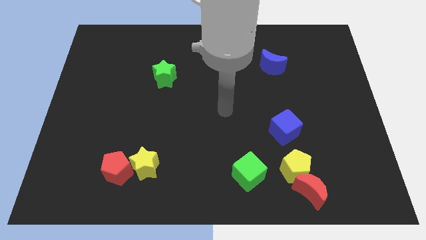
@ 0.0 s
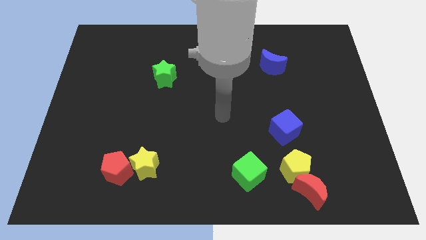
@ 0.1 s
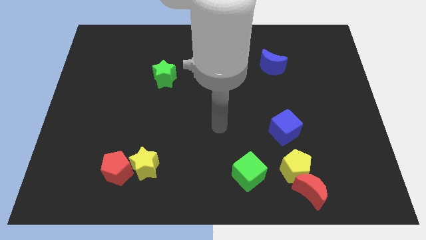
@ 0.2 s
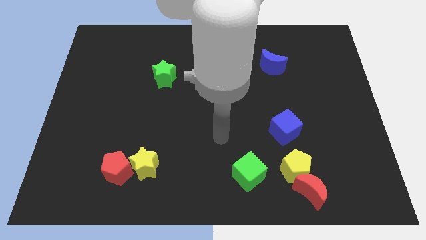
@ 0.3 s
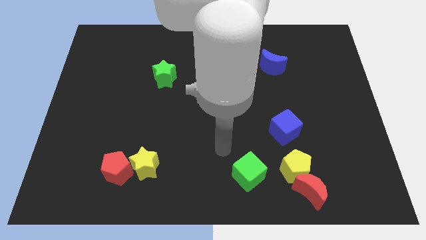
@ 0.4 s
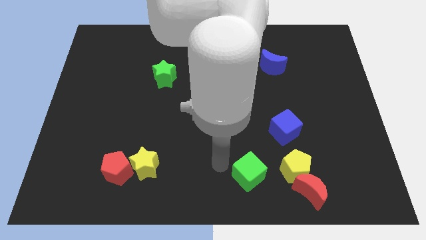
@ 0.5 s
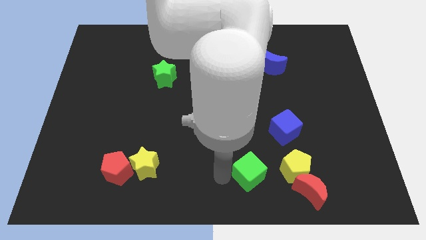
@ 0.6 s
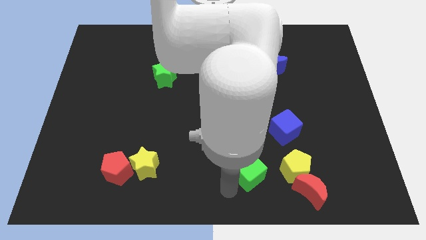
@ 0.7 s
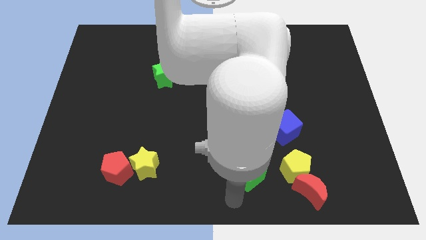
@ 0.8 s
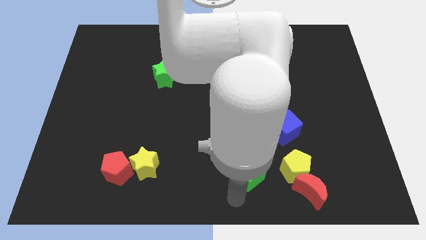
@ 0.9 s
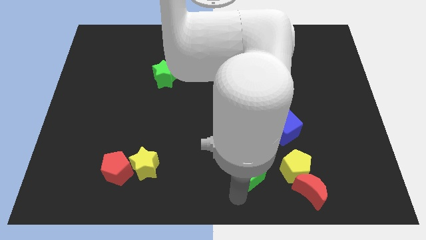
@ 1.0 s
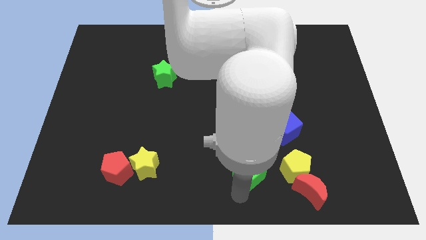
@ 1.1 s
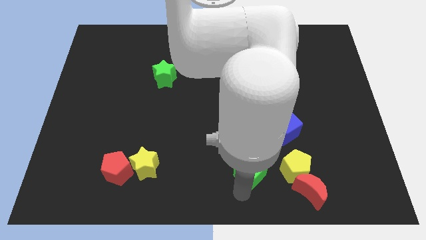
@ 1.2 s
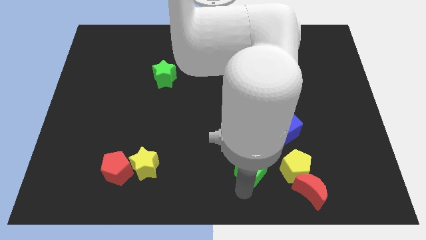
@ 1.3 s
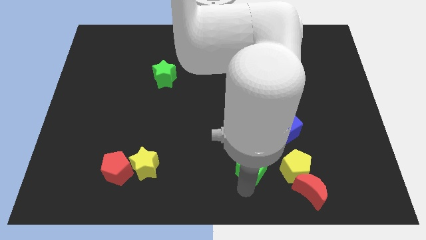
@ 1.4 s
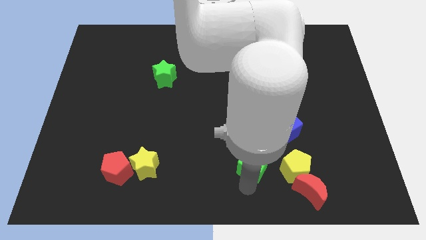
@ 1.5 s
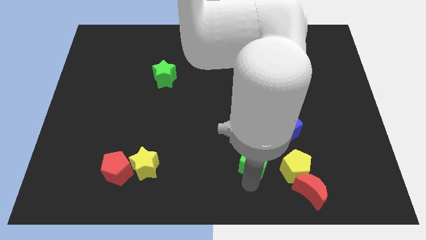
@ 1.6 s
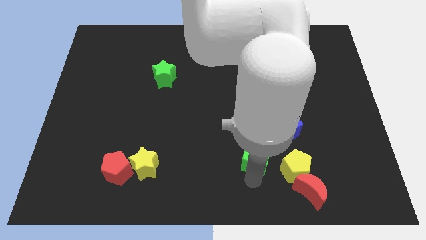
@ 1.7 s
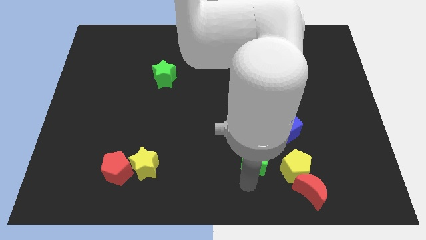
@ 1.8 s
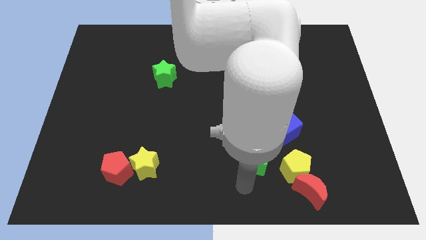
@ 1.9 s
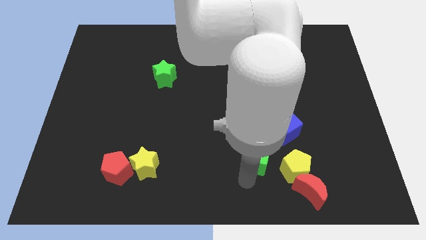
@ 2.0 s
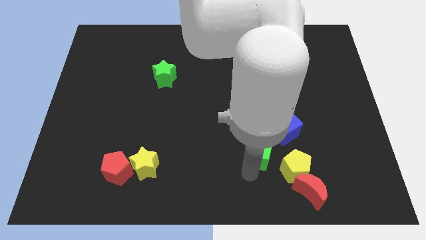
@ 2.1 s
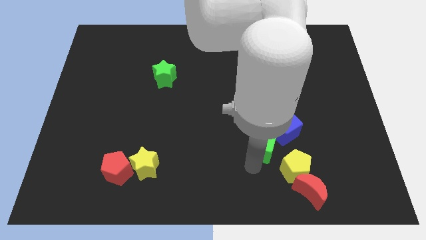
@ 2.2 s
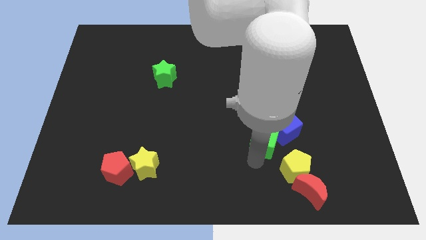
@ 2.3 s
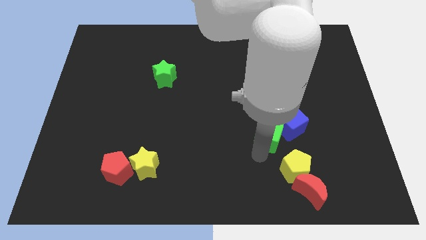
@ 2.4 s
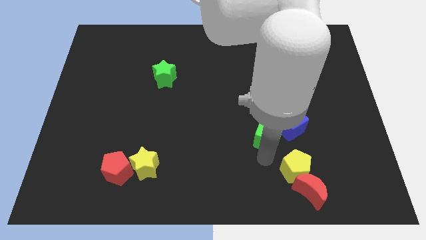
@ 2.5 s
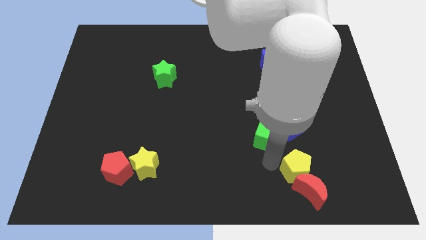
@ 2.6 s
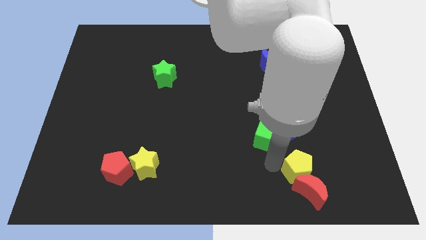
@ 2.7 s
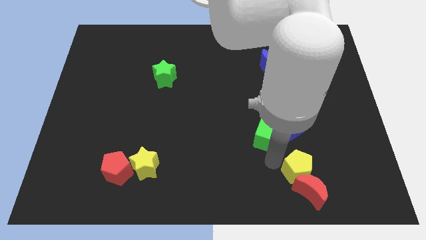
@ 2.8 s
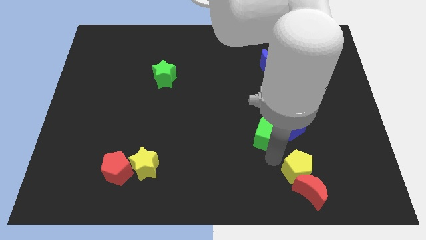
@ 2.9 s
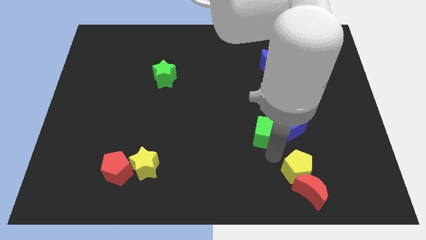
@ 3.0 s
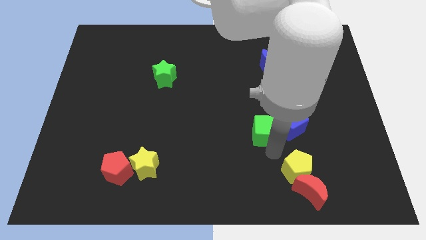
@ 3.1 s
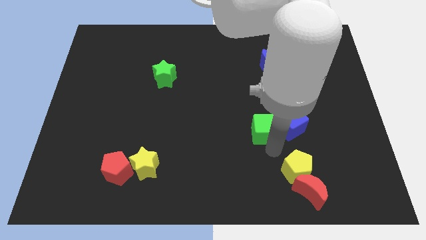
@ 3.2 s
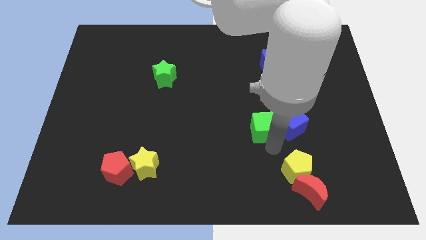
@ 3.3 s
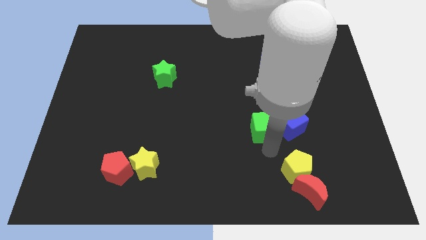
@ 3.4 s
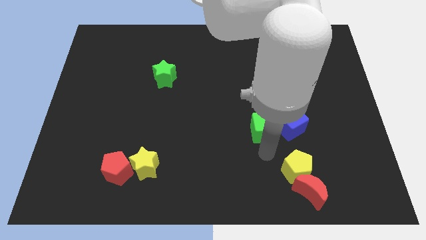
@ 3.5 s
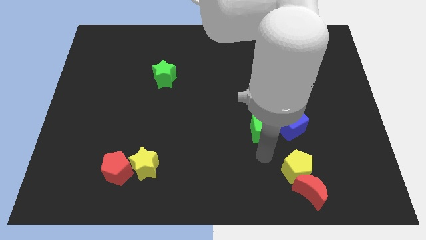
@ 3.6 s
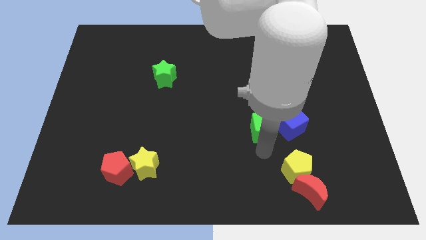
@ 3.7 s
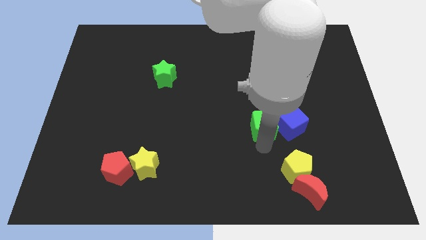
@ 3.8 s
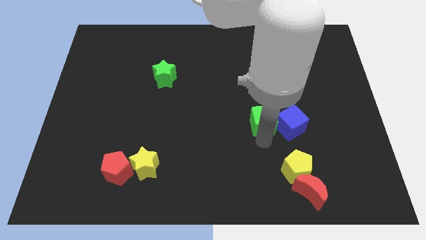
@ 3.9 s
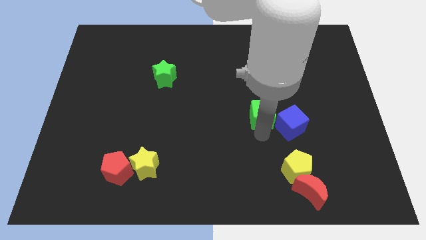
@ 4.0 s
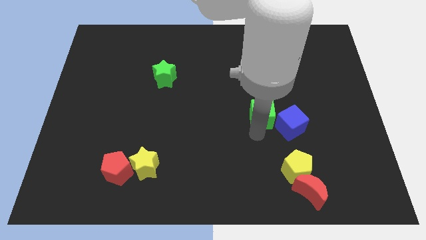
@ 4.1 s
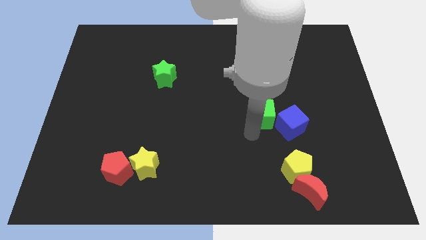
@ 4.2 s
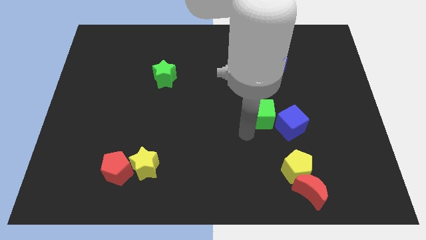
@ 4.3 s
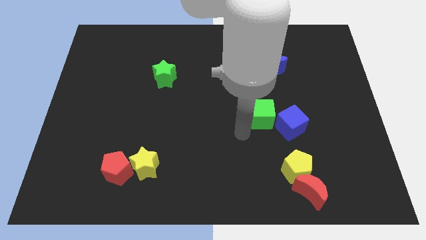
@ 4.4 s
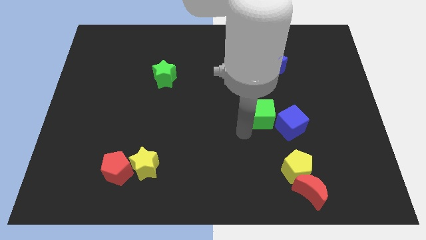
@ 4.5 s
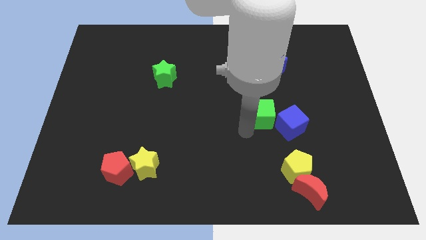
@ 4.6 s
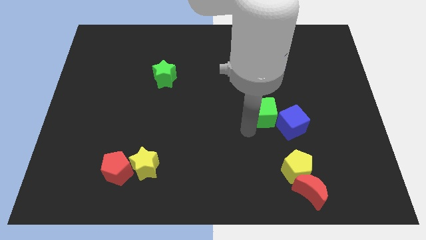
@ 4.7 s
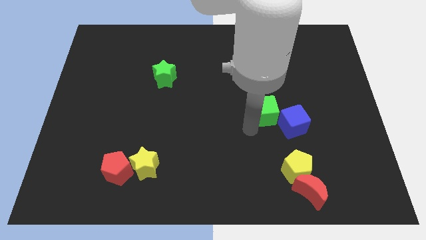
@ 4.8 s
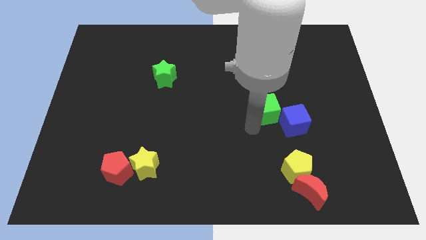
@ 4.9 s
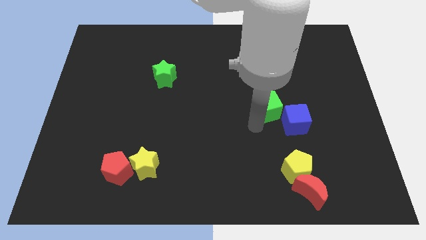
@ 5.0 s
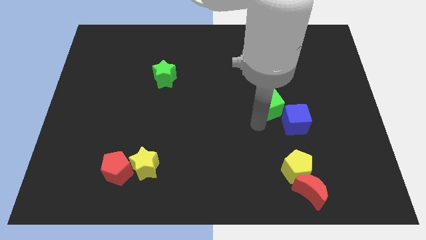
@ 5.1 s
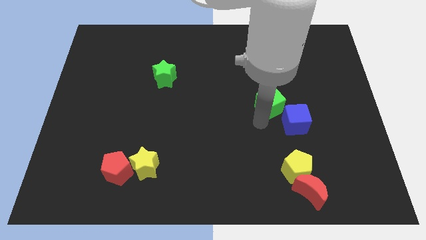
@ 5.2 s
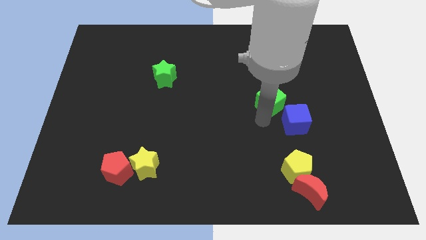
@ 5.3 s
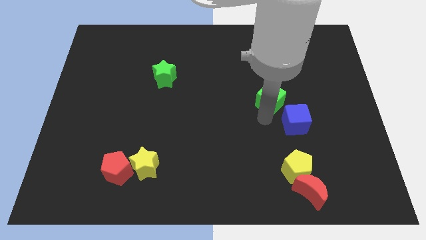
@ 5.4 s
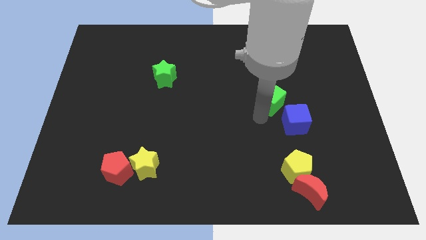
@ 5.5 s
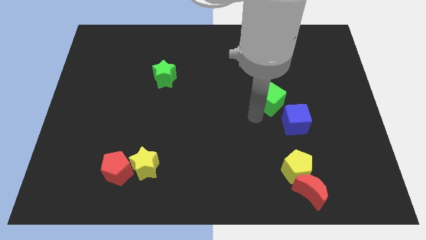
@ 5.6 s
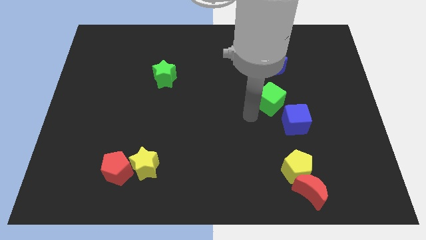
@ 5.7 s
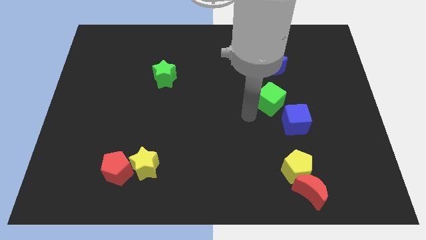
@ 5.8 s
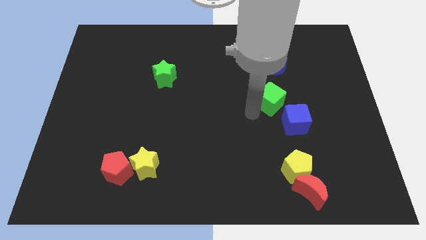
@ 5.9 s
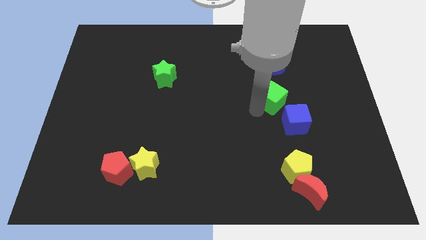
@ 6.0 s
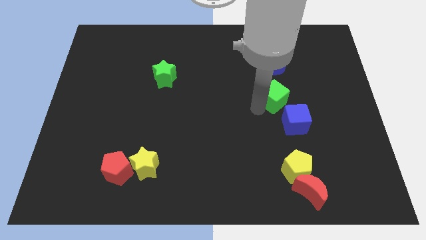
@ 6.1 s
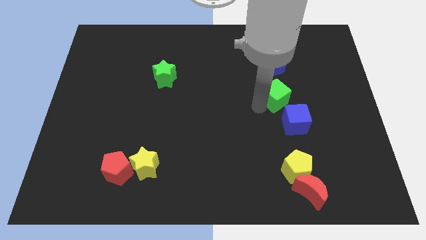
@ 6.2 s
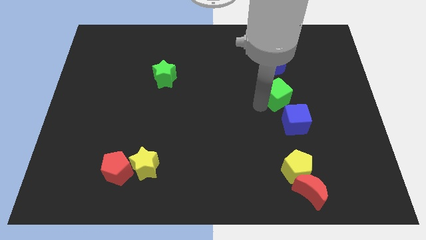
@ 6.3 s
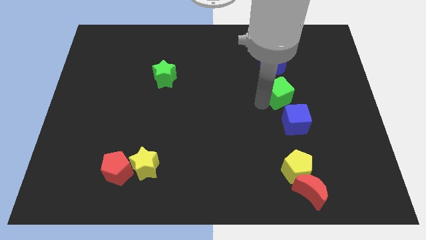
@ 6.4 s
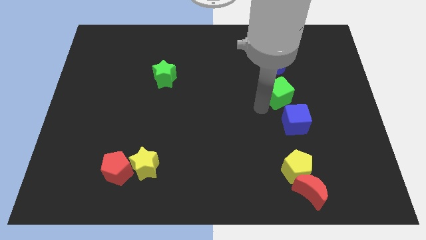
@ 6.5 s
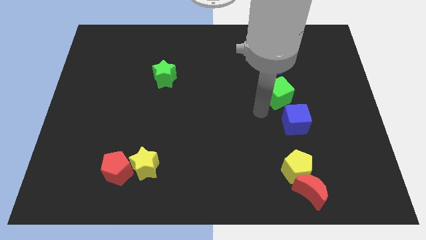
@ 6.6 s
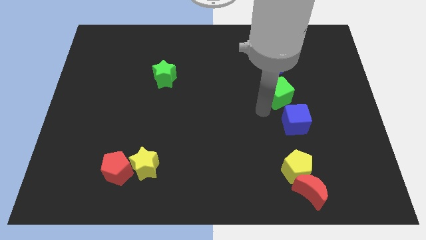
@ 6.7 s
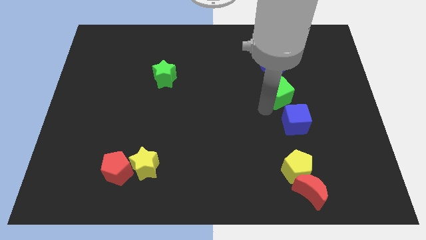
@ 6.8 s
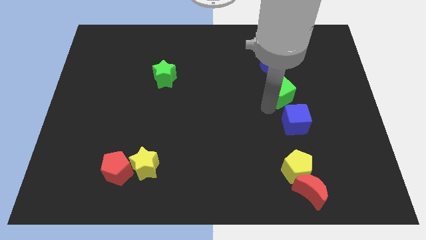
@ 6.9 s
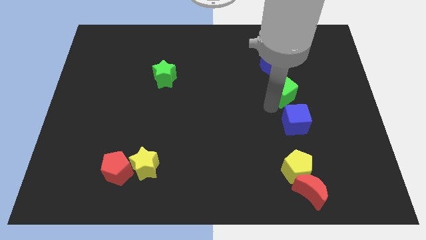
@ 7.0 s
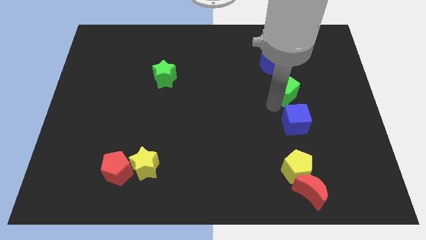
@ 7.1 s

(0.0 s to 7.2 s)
slide the green cube diagonally down and to the right of the blue moon

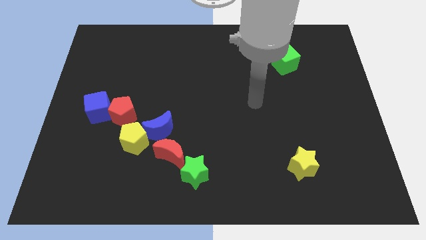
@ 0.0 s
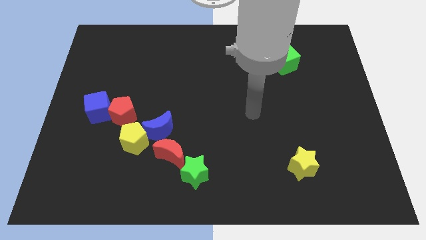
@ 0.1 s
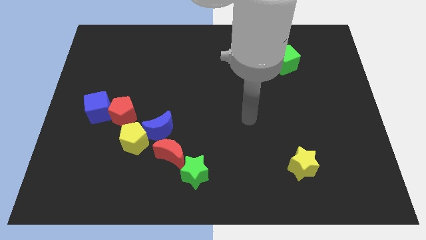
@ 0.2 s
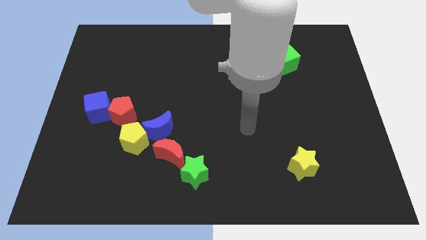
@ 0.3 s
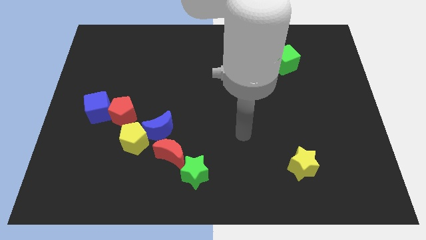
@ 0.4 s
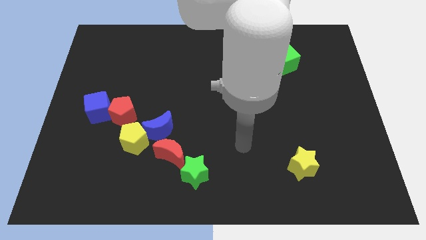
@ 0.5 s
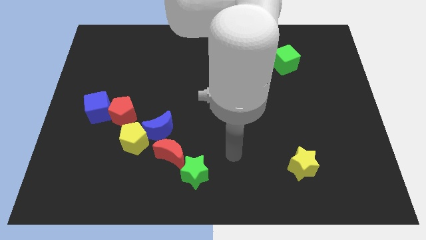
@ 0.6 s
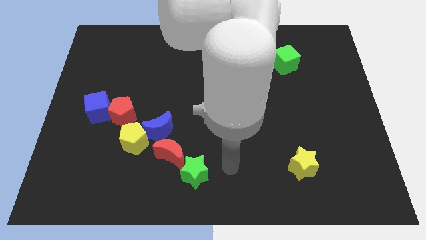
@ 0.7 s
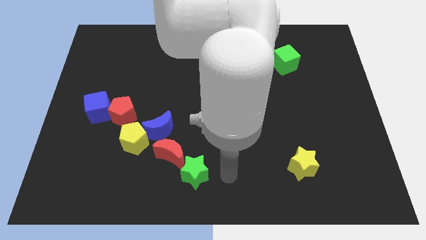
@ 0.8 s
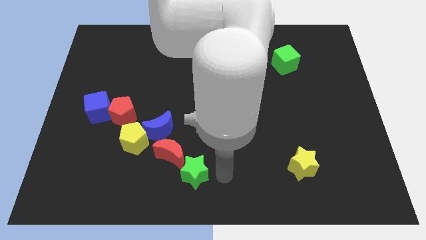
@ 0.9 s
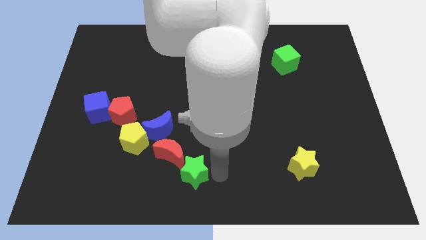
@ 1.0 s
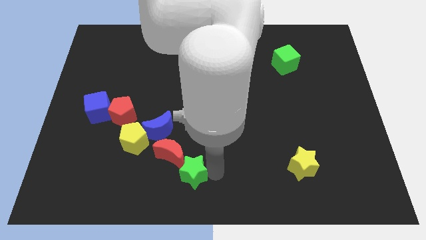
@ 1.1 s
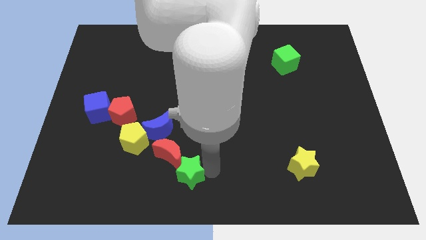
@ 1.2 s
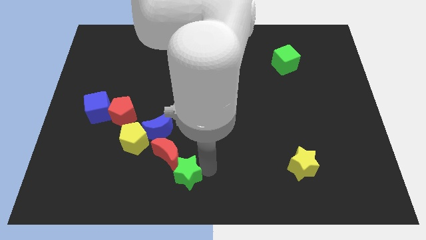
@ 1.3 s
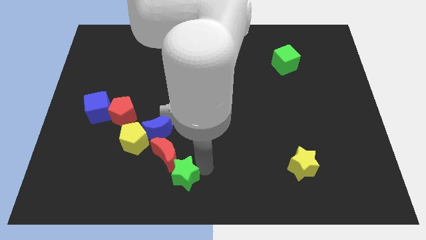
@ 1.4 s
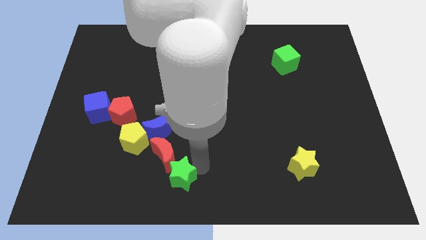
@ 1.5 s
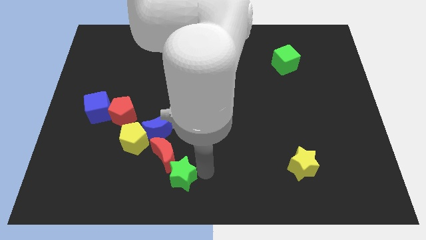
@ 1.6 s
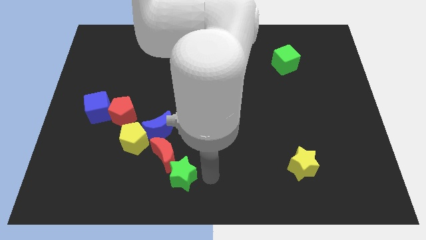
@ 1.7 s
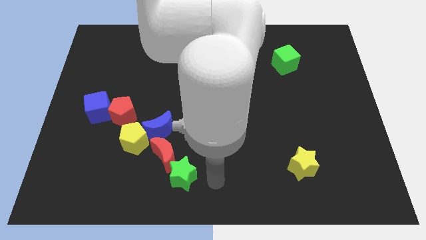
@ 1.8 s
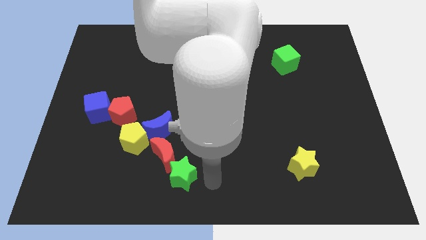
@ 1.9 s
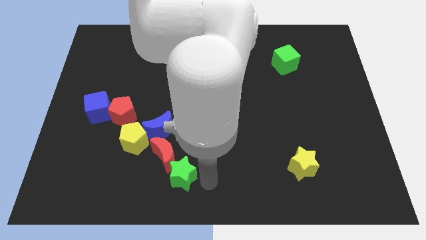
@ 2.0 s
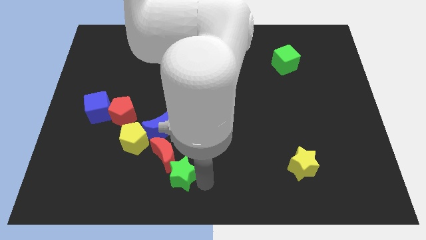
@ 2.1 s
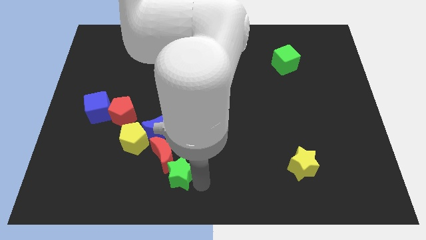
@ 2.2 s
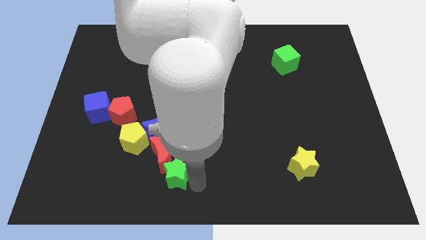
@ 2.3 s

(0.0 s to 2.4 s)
push the green star to the bottom of the blue moon
